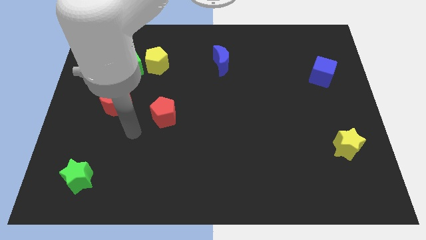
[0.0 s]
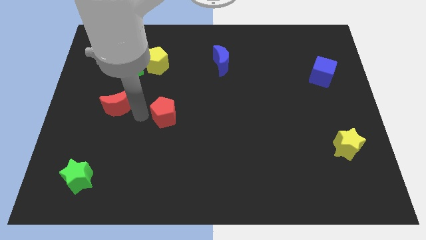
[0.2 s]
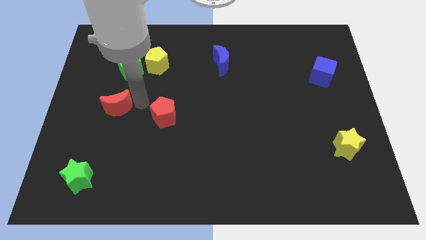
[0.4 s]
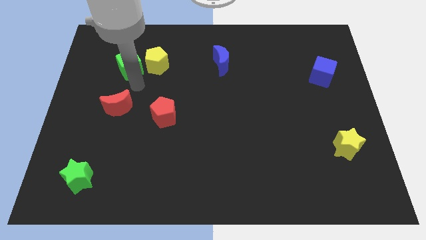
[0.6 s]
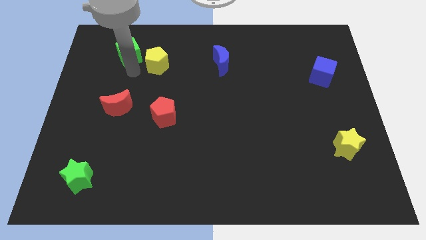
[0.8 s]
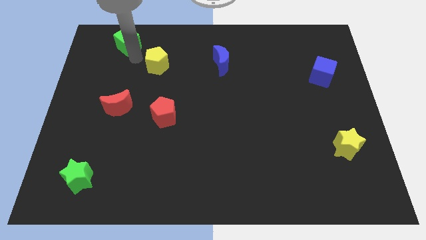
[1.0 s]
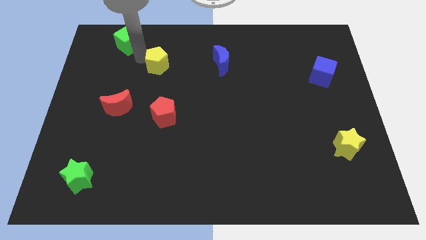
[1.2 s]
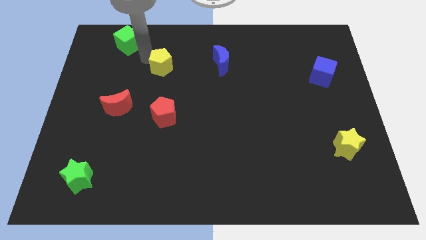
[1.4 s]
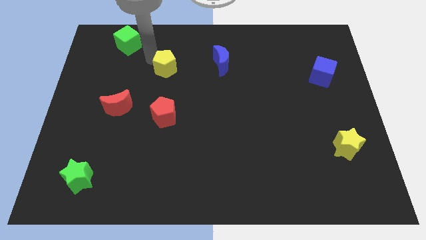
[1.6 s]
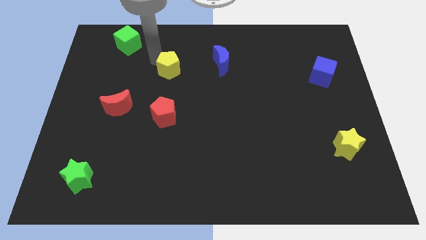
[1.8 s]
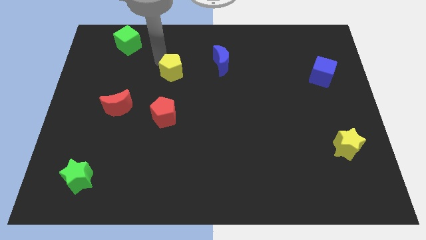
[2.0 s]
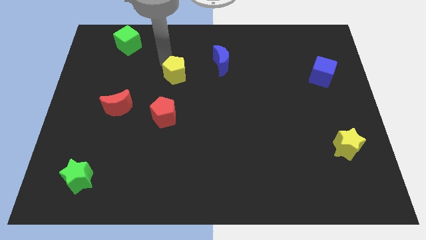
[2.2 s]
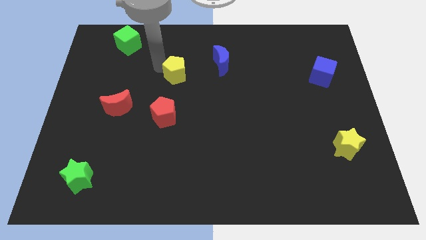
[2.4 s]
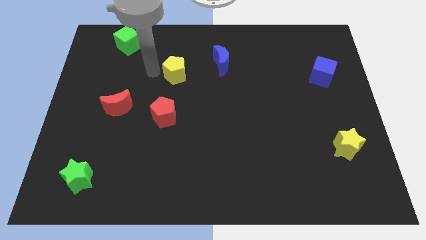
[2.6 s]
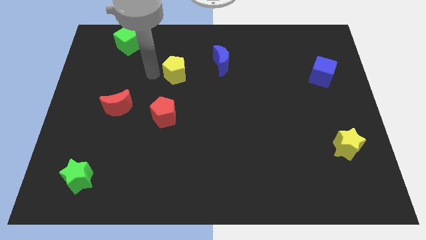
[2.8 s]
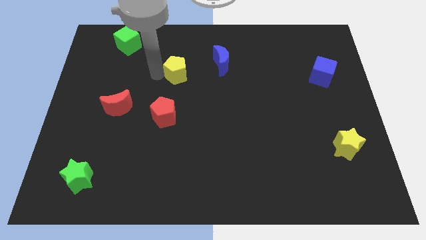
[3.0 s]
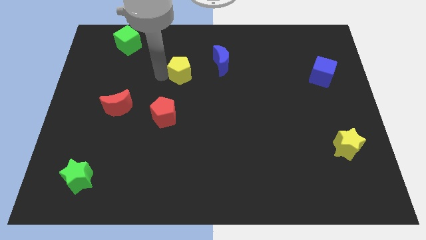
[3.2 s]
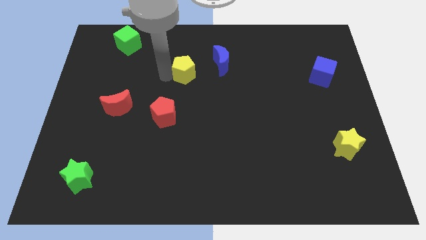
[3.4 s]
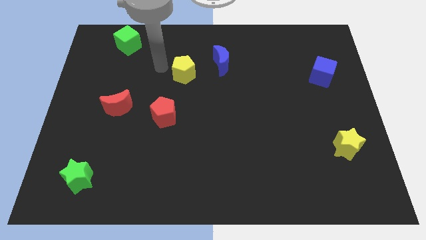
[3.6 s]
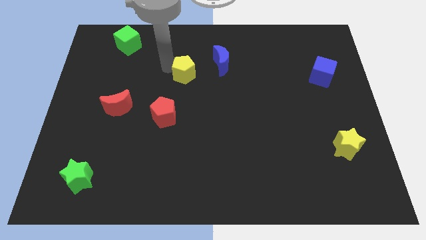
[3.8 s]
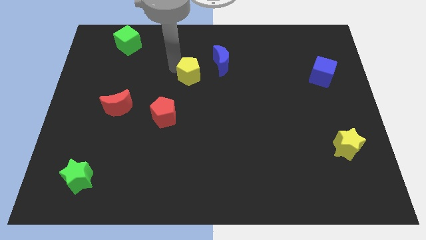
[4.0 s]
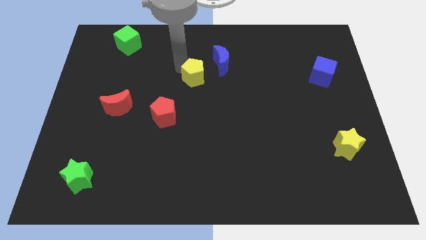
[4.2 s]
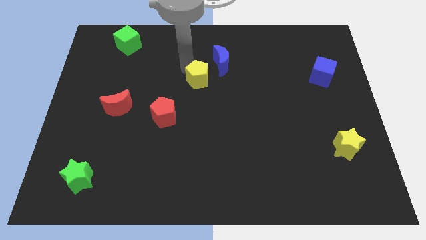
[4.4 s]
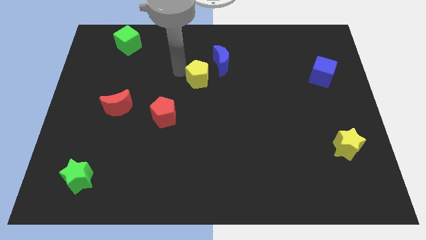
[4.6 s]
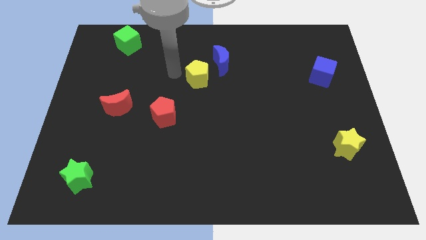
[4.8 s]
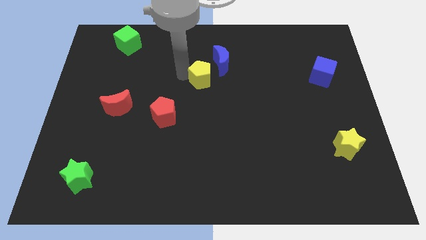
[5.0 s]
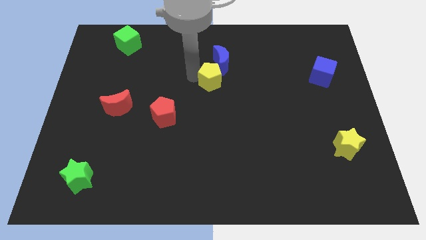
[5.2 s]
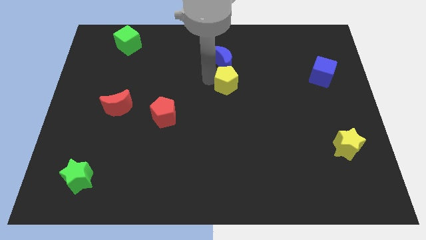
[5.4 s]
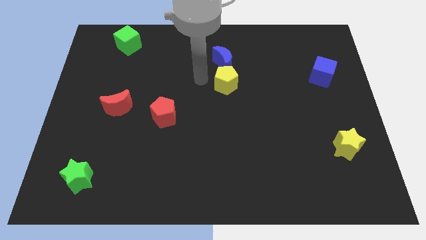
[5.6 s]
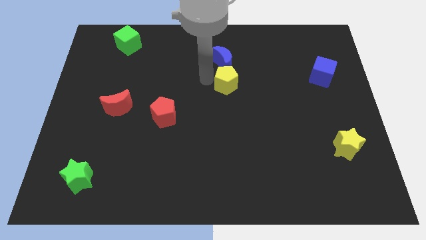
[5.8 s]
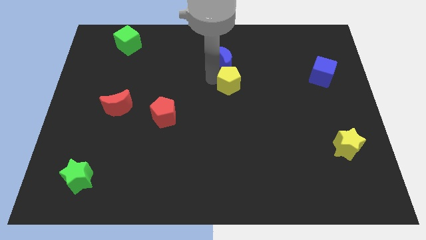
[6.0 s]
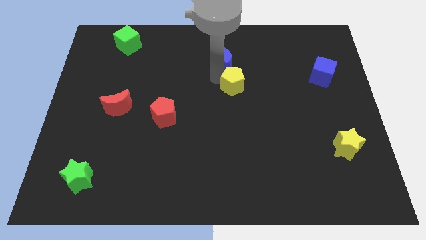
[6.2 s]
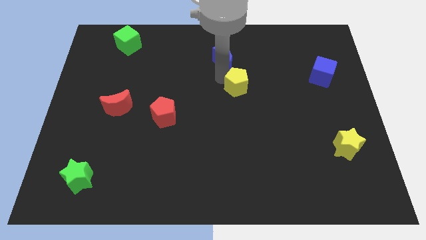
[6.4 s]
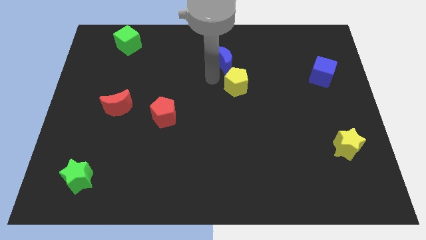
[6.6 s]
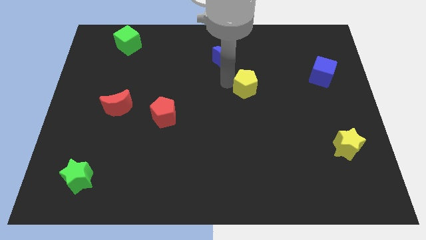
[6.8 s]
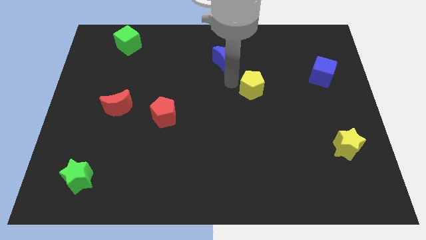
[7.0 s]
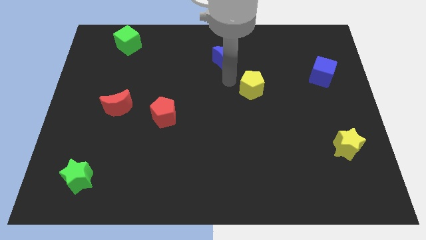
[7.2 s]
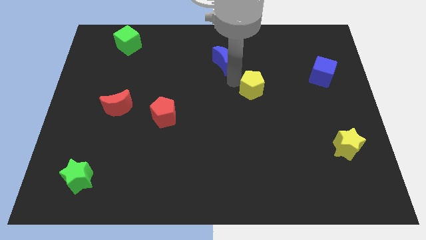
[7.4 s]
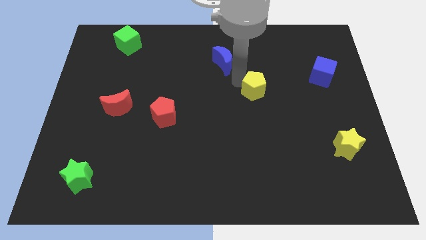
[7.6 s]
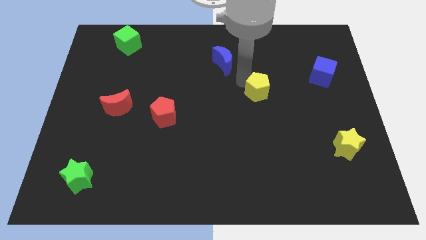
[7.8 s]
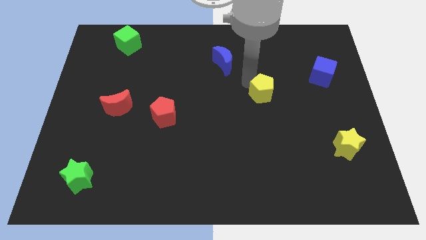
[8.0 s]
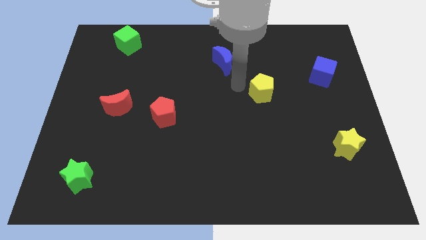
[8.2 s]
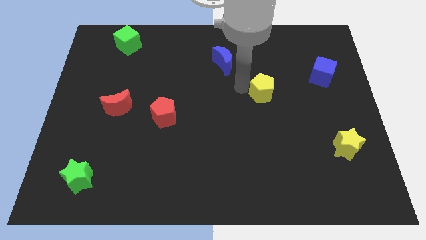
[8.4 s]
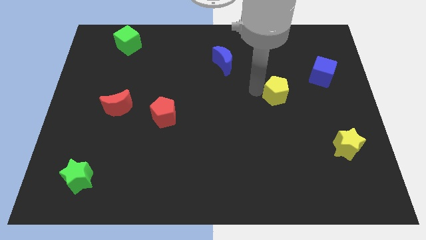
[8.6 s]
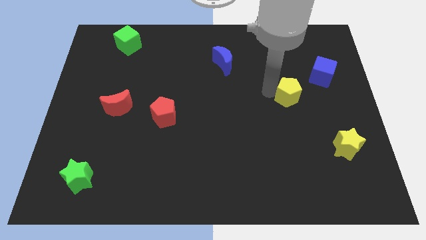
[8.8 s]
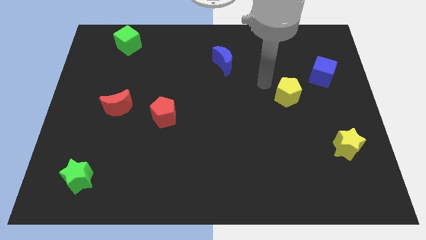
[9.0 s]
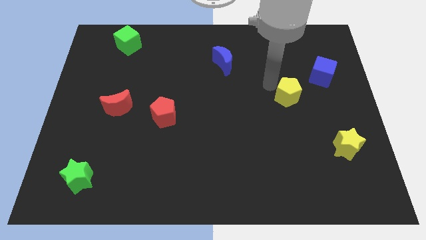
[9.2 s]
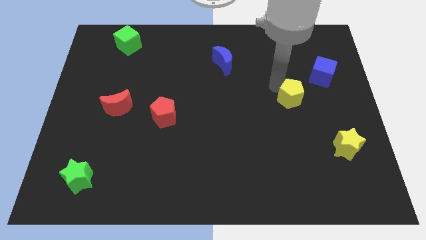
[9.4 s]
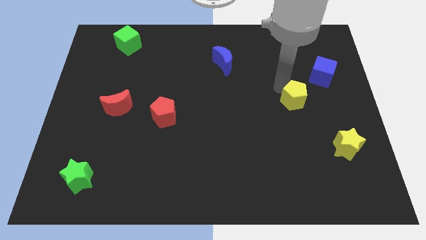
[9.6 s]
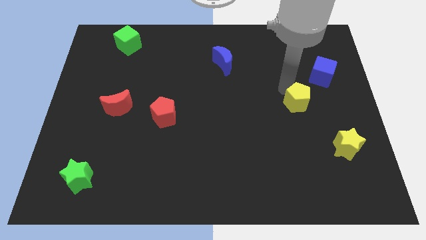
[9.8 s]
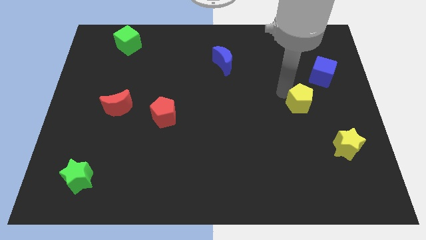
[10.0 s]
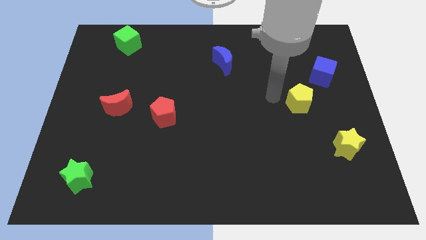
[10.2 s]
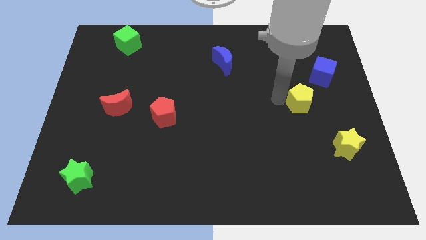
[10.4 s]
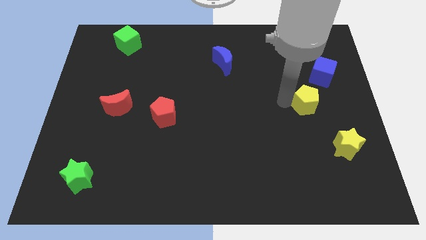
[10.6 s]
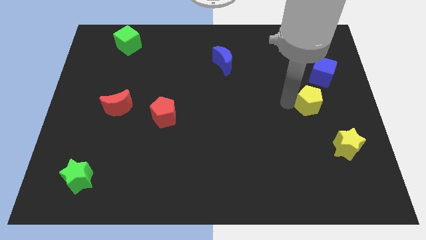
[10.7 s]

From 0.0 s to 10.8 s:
move the yellow pentagon below the blue cube

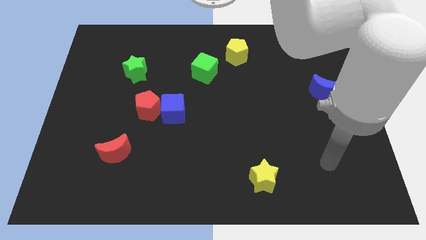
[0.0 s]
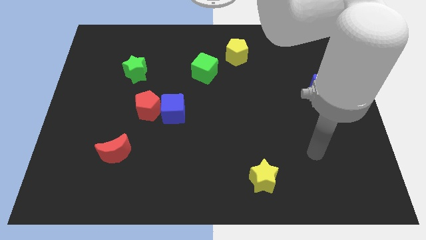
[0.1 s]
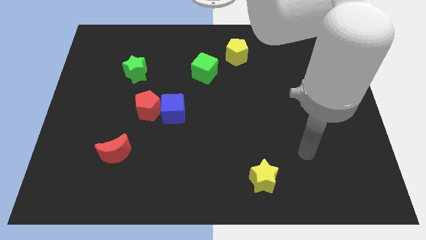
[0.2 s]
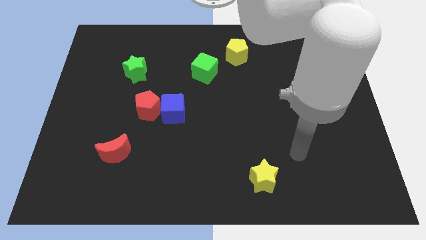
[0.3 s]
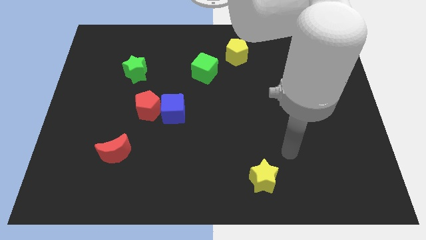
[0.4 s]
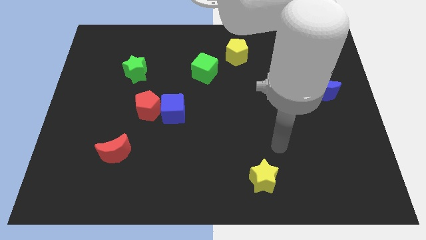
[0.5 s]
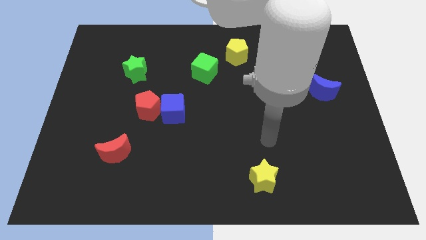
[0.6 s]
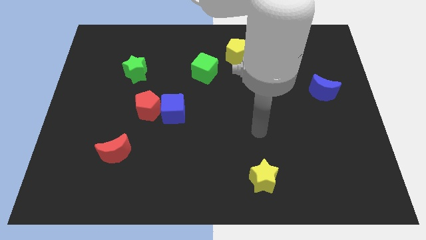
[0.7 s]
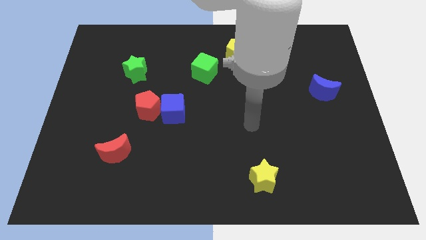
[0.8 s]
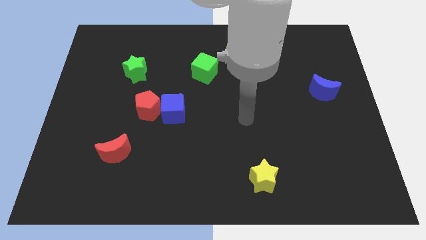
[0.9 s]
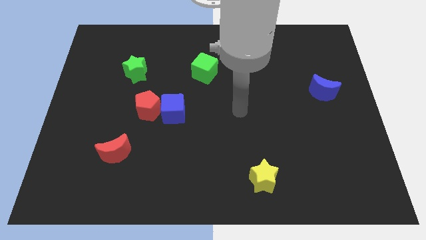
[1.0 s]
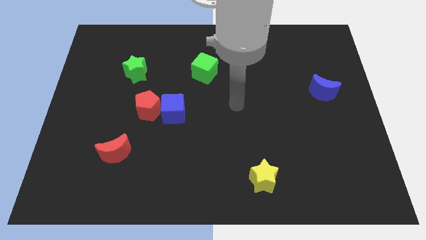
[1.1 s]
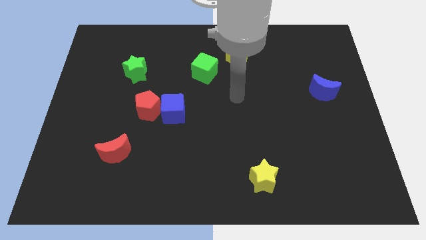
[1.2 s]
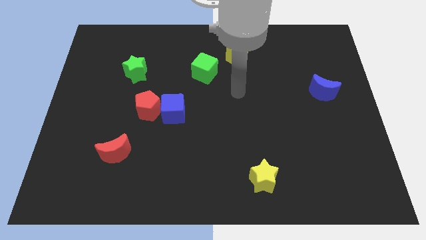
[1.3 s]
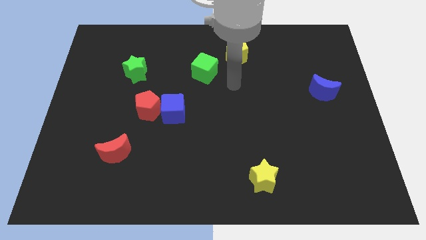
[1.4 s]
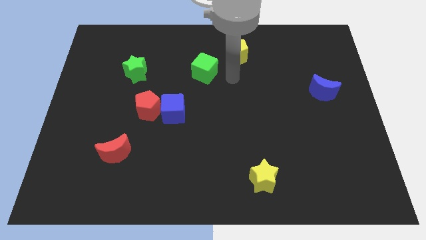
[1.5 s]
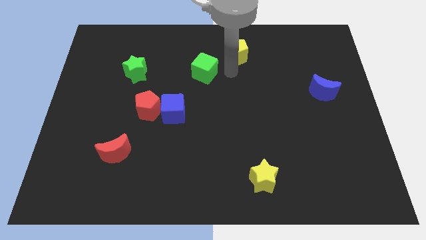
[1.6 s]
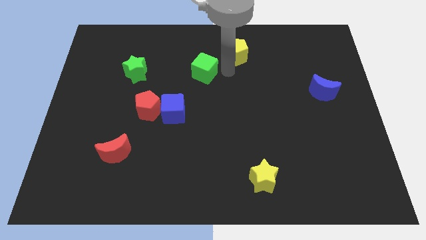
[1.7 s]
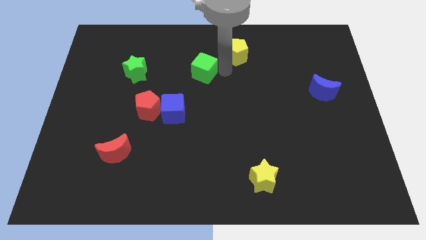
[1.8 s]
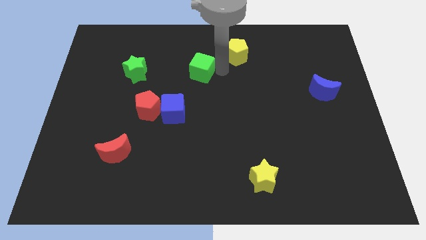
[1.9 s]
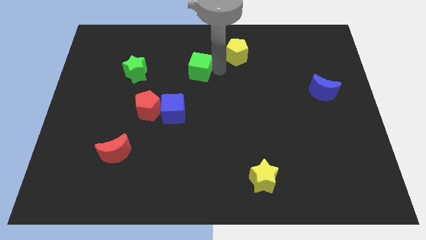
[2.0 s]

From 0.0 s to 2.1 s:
move the green cube just right of the green star

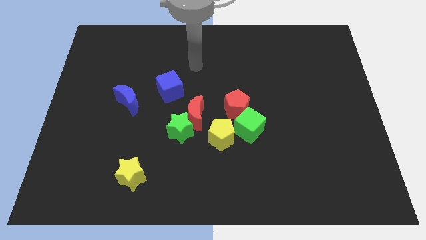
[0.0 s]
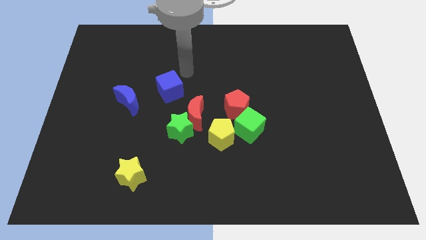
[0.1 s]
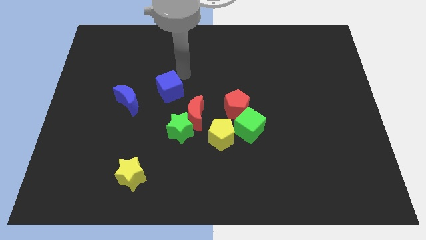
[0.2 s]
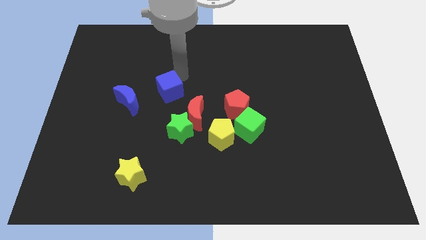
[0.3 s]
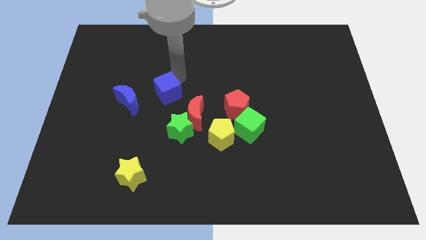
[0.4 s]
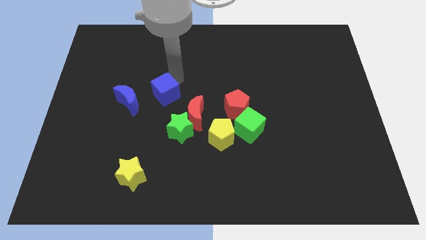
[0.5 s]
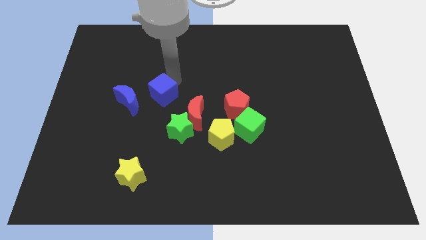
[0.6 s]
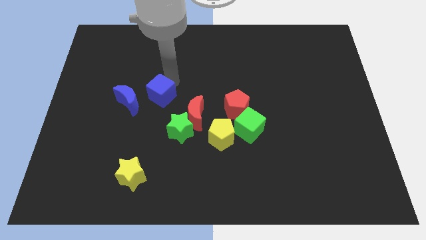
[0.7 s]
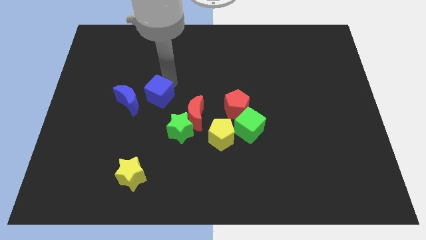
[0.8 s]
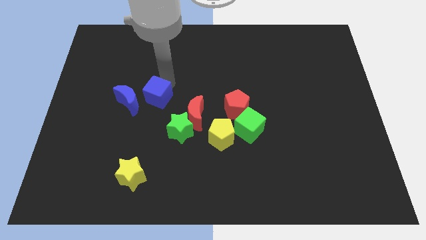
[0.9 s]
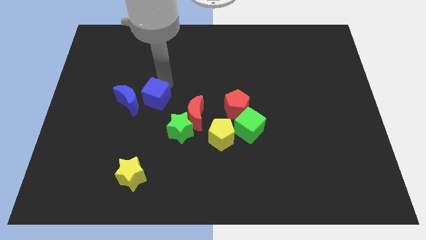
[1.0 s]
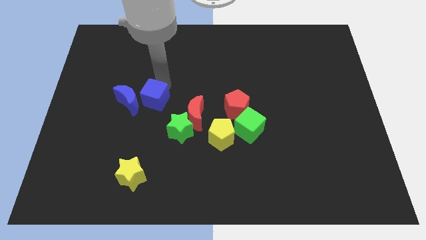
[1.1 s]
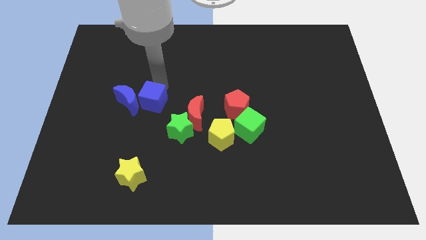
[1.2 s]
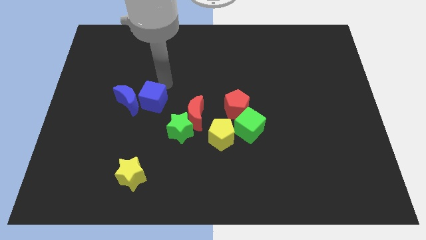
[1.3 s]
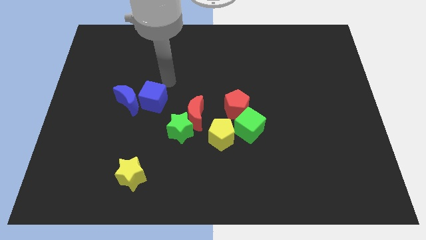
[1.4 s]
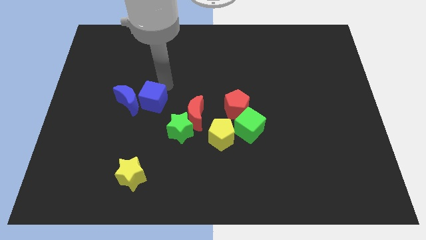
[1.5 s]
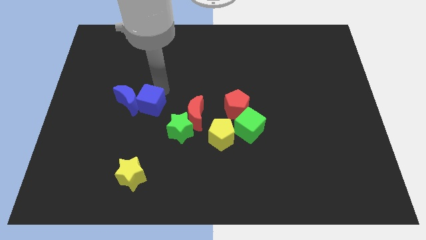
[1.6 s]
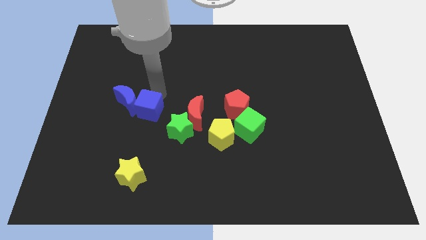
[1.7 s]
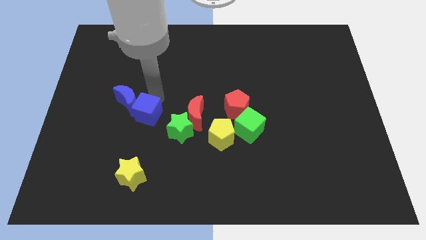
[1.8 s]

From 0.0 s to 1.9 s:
put the blue cube to the left side of the green star
